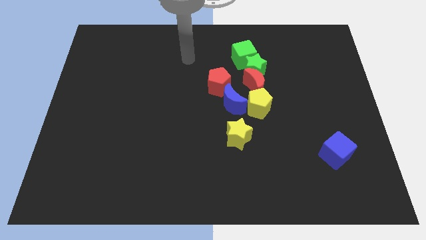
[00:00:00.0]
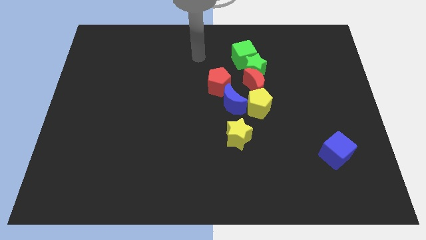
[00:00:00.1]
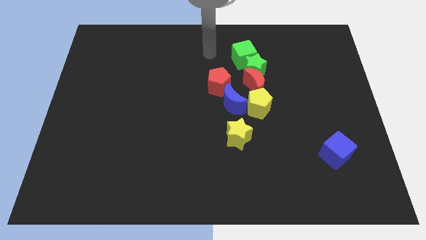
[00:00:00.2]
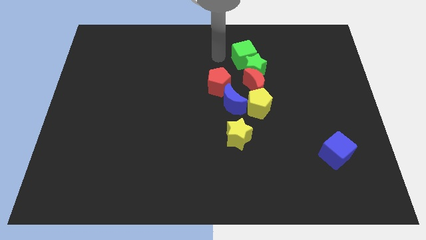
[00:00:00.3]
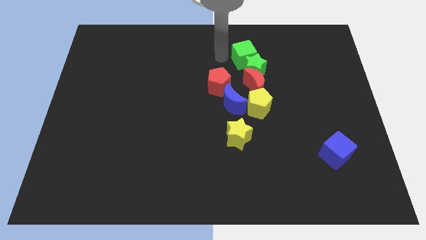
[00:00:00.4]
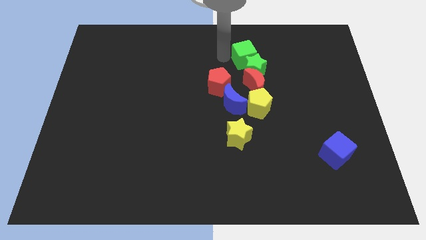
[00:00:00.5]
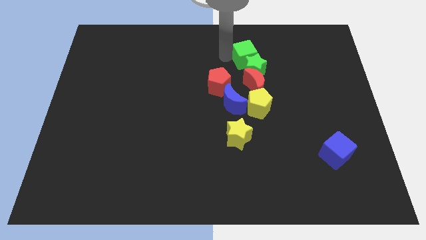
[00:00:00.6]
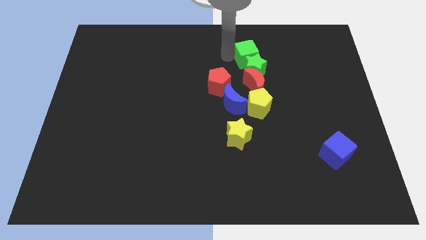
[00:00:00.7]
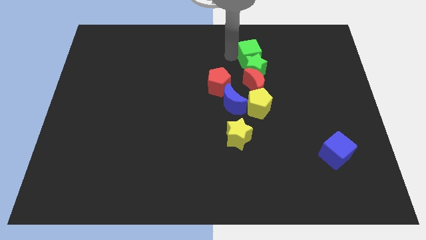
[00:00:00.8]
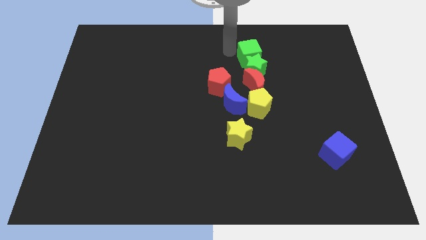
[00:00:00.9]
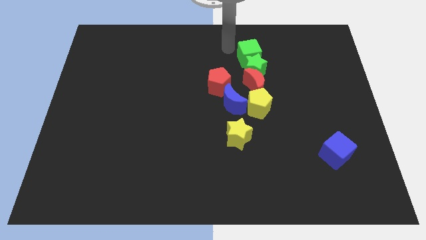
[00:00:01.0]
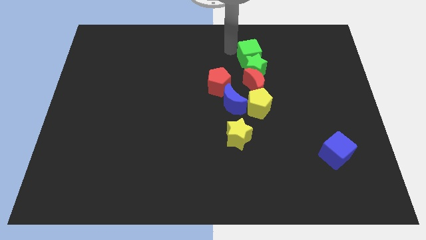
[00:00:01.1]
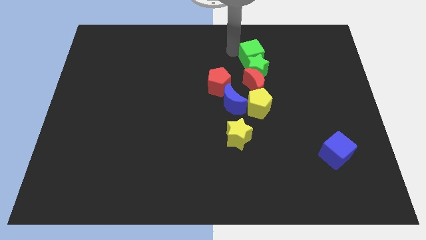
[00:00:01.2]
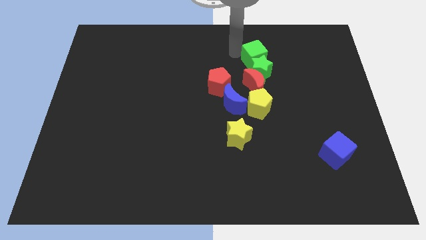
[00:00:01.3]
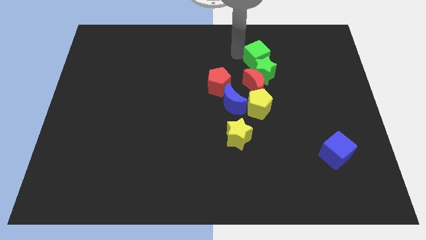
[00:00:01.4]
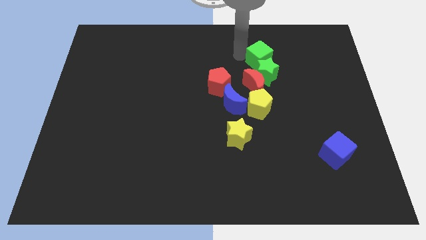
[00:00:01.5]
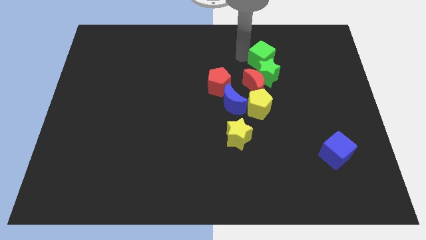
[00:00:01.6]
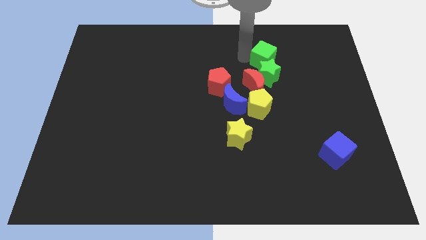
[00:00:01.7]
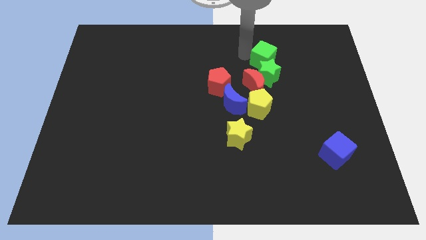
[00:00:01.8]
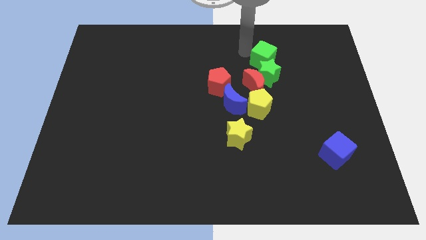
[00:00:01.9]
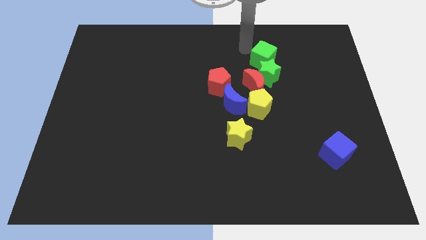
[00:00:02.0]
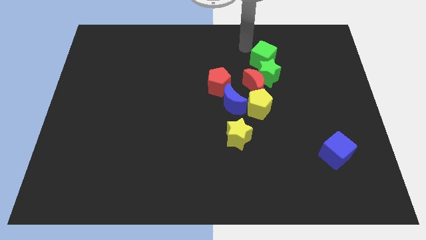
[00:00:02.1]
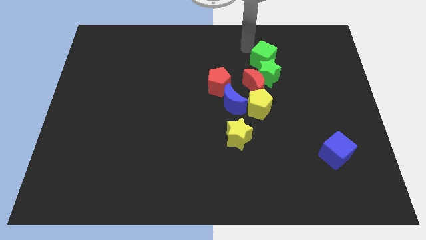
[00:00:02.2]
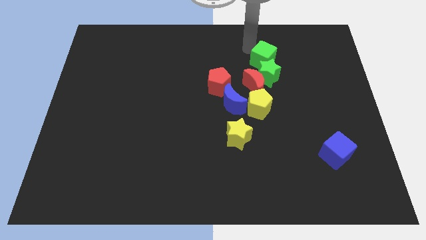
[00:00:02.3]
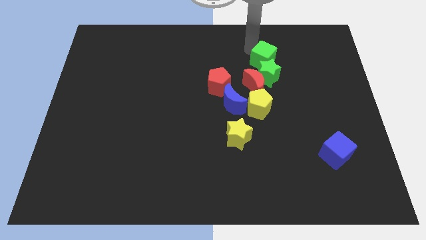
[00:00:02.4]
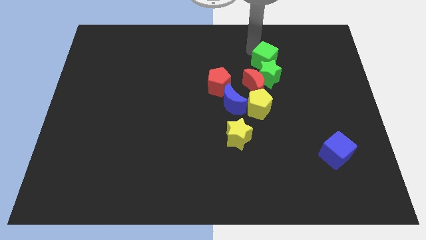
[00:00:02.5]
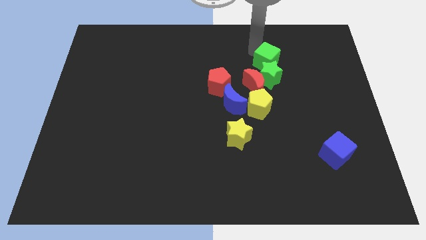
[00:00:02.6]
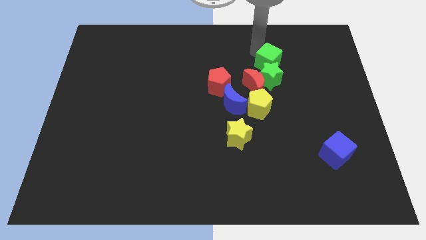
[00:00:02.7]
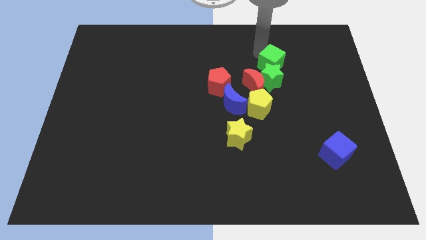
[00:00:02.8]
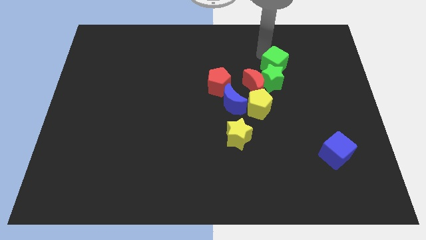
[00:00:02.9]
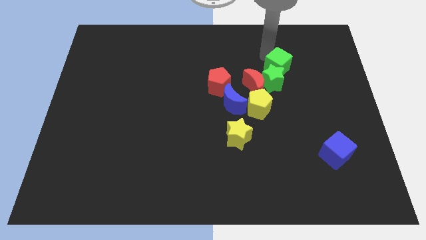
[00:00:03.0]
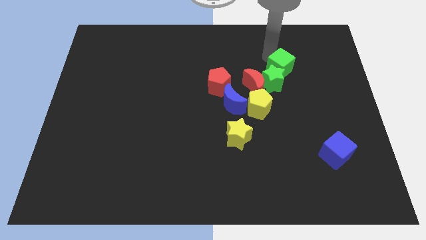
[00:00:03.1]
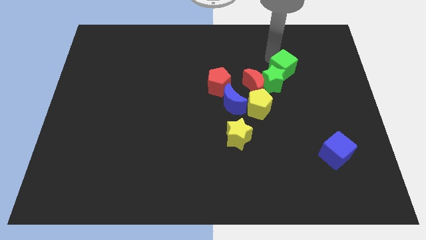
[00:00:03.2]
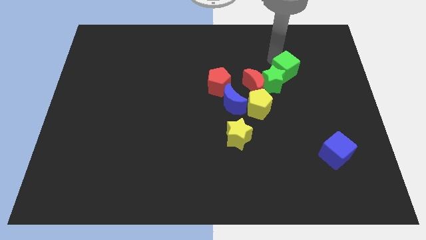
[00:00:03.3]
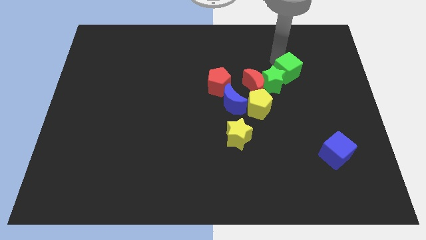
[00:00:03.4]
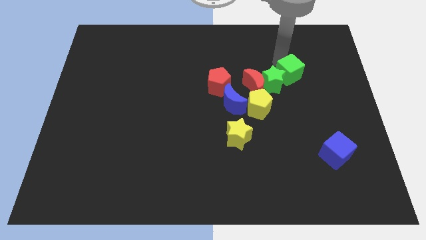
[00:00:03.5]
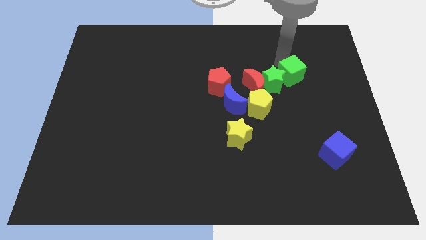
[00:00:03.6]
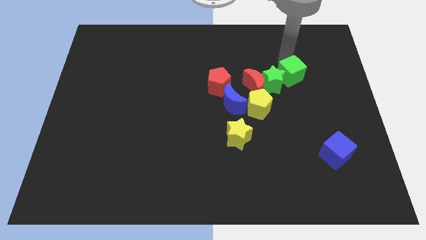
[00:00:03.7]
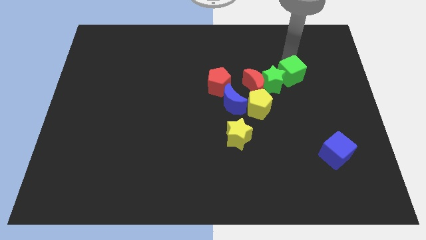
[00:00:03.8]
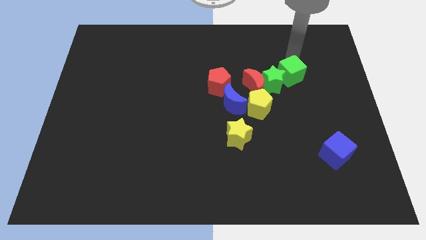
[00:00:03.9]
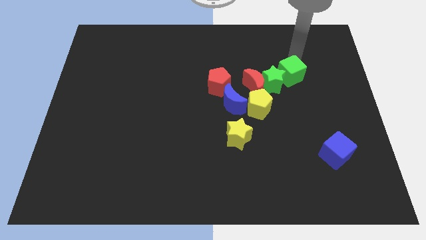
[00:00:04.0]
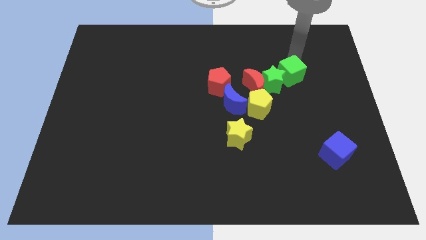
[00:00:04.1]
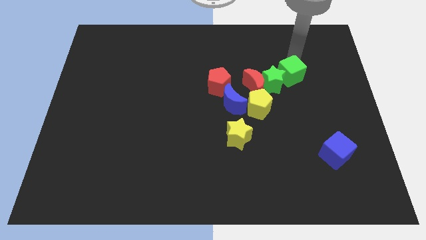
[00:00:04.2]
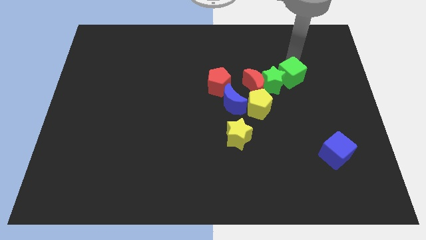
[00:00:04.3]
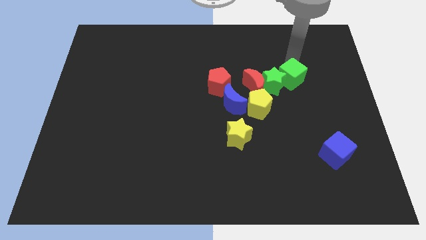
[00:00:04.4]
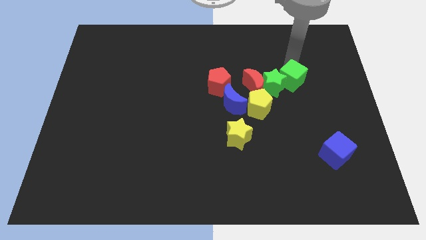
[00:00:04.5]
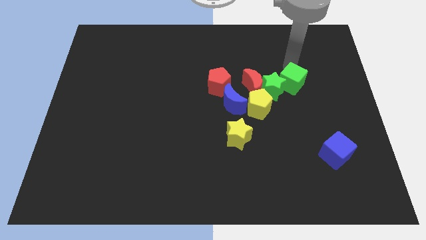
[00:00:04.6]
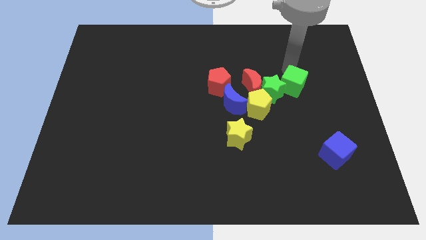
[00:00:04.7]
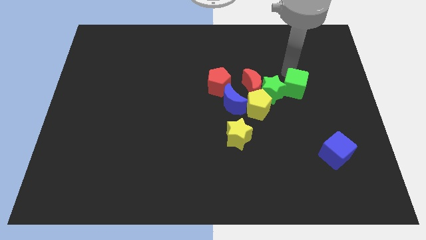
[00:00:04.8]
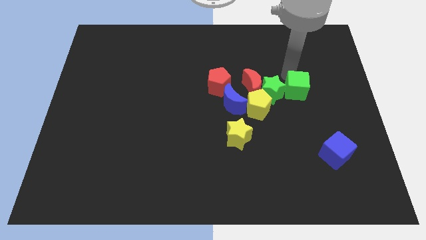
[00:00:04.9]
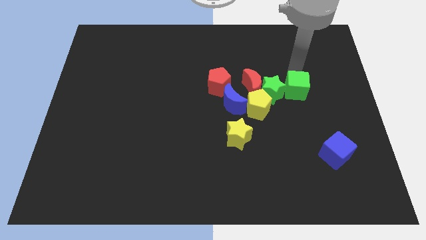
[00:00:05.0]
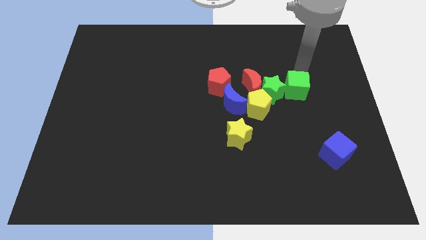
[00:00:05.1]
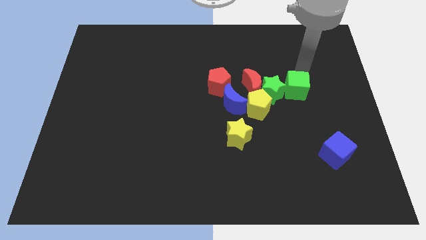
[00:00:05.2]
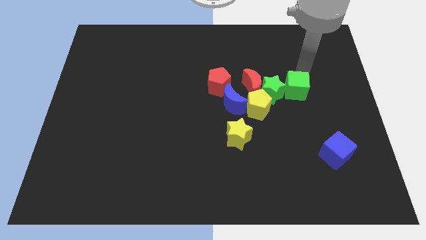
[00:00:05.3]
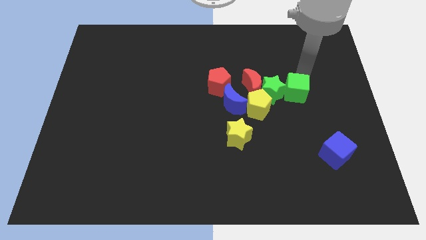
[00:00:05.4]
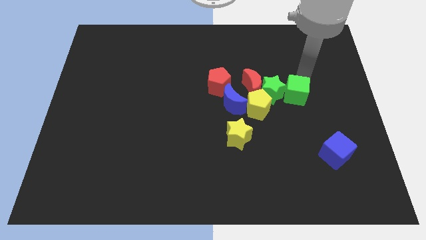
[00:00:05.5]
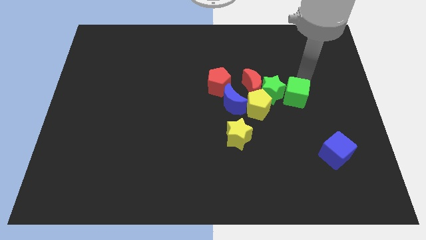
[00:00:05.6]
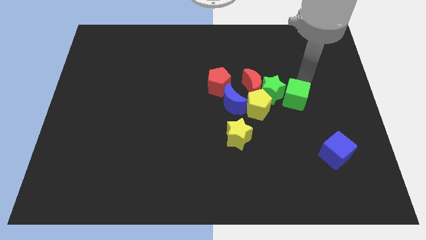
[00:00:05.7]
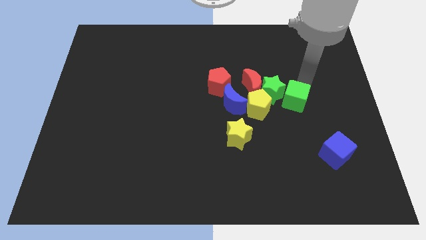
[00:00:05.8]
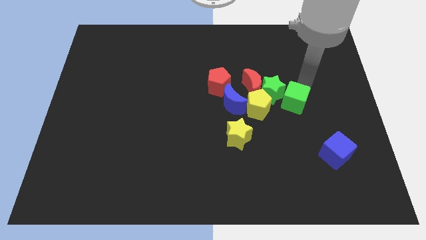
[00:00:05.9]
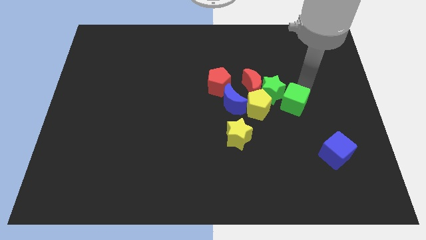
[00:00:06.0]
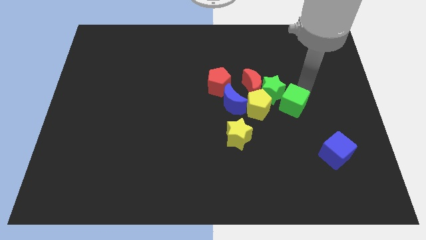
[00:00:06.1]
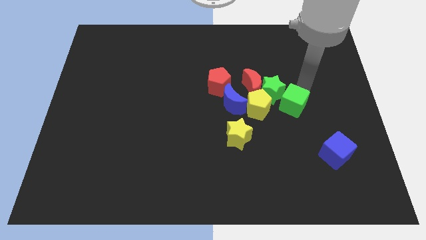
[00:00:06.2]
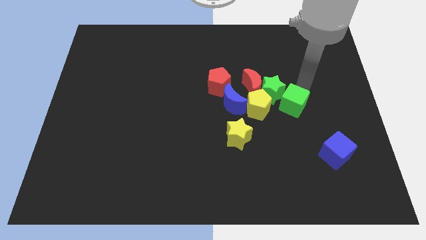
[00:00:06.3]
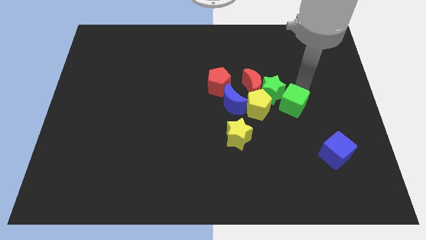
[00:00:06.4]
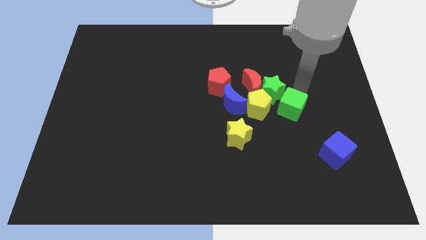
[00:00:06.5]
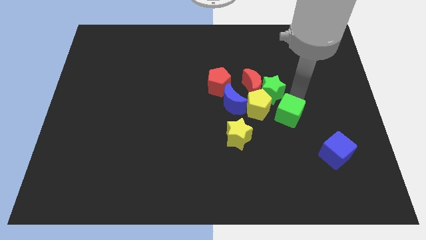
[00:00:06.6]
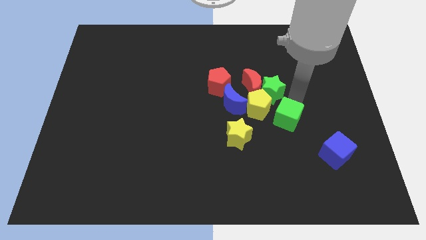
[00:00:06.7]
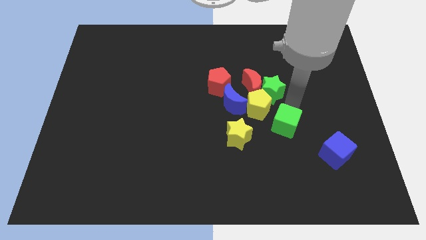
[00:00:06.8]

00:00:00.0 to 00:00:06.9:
push the green cube just right of the yellow star
